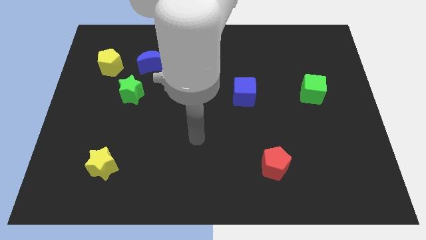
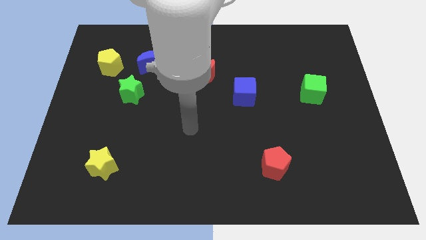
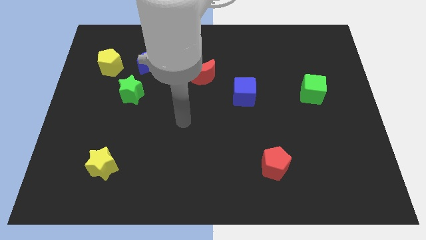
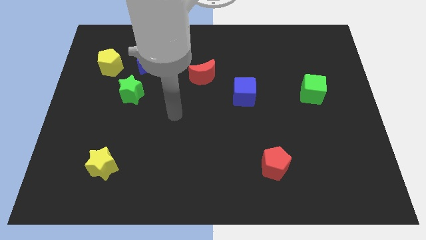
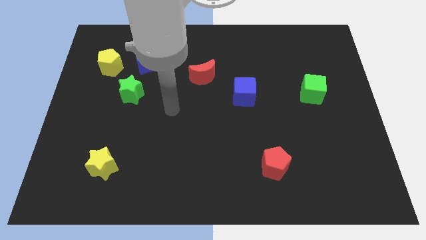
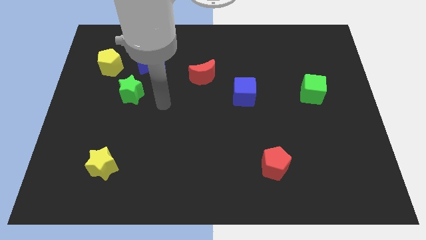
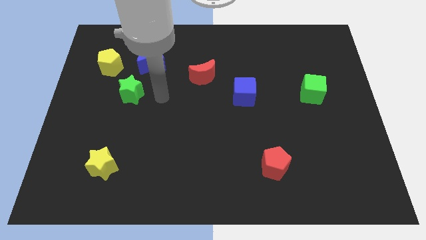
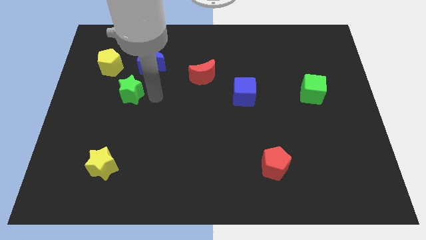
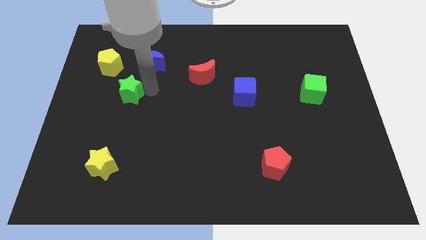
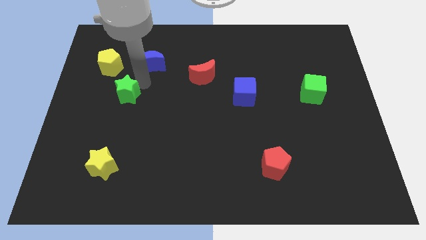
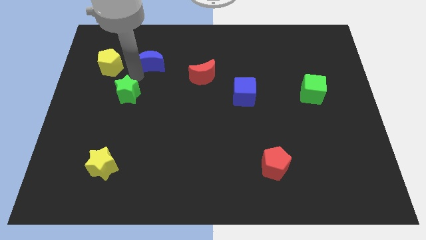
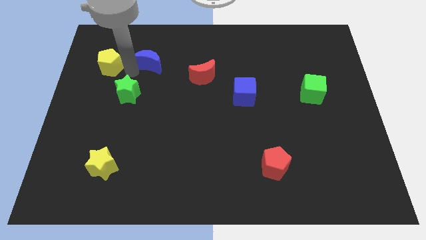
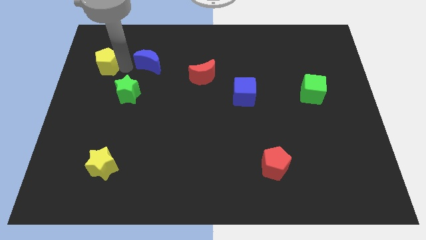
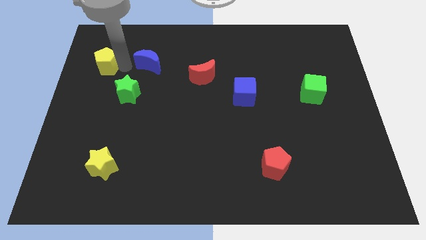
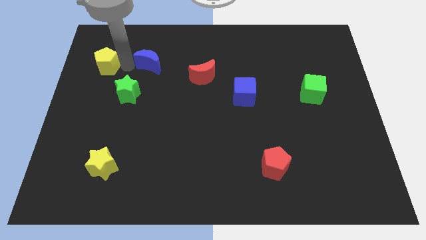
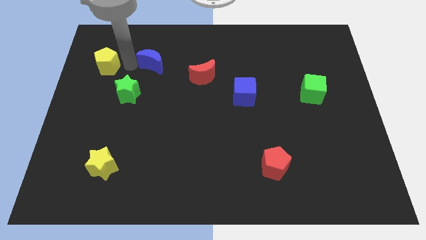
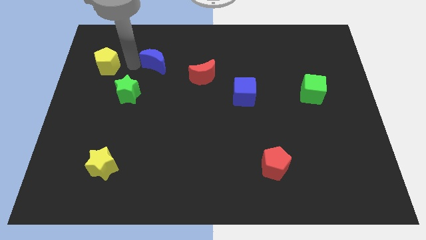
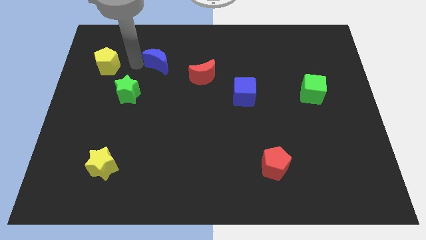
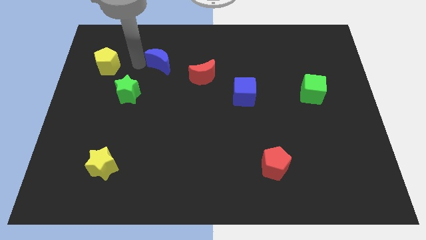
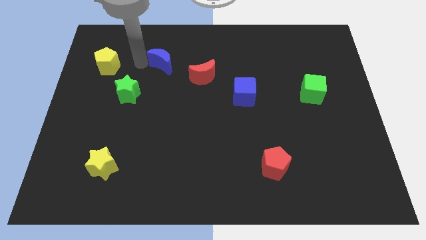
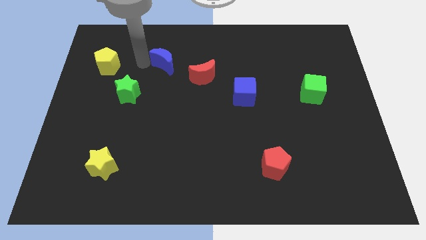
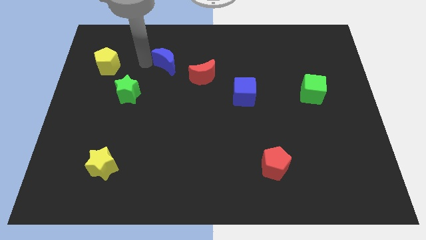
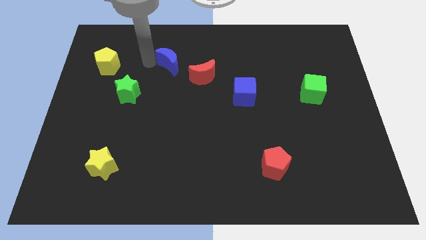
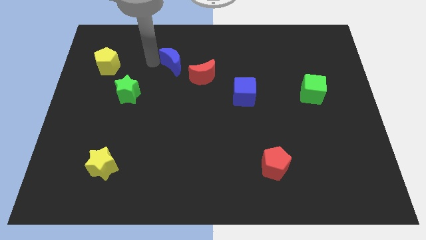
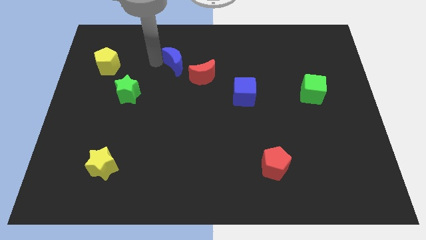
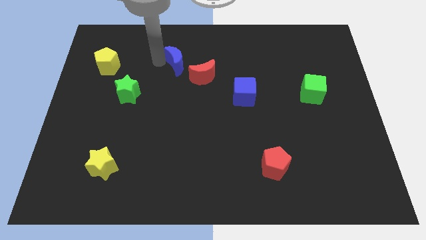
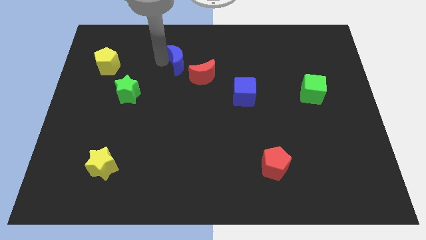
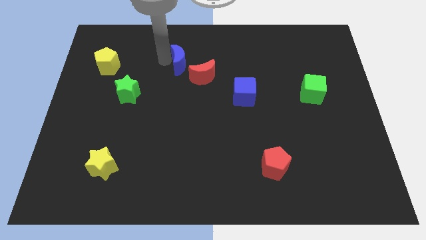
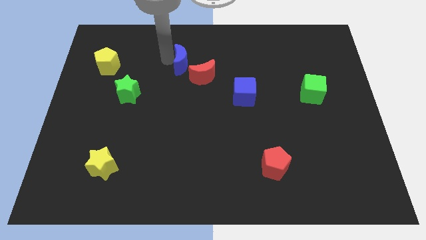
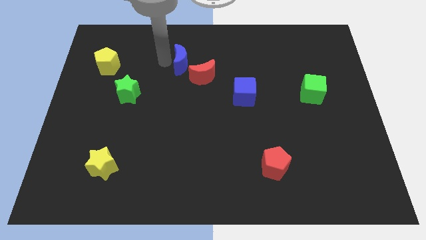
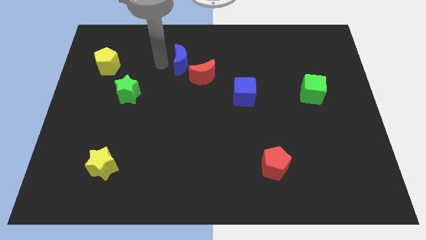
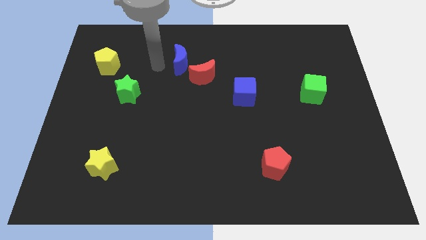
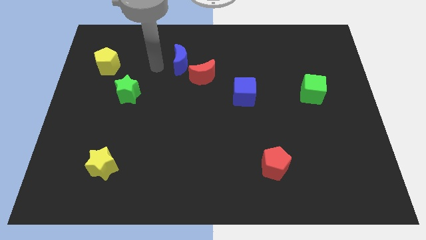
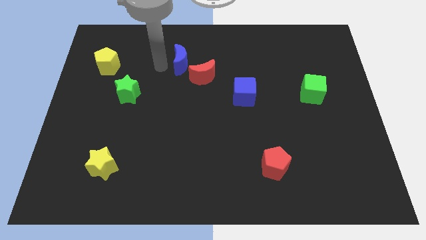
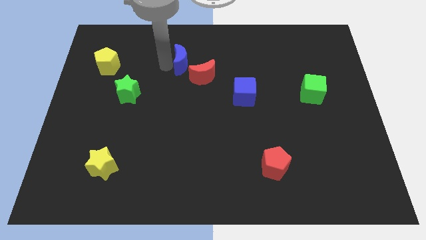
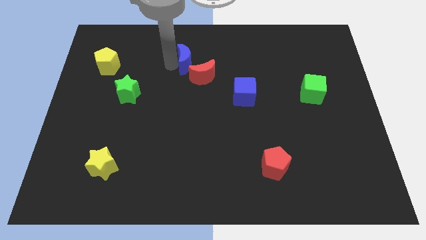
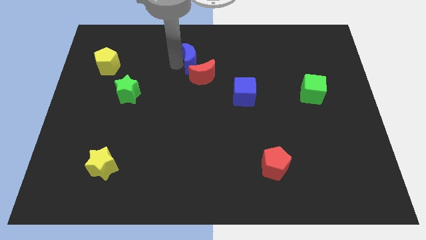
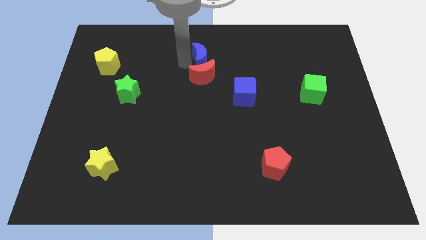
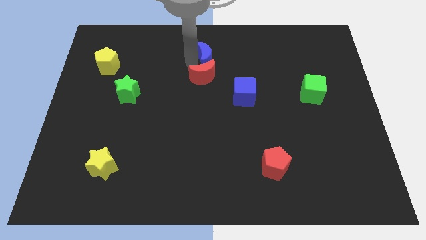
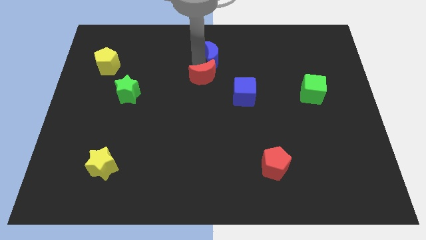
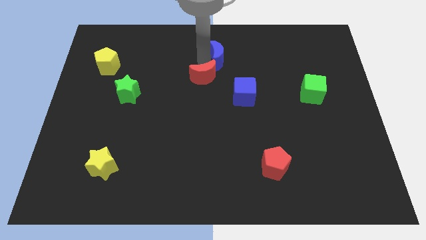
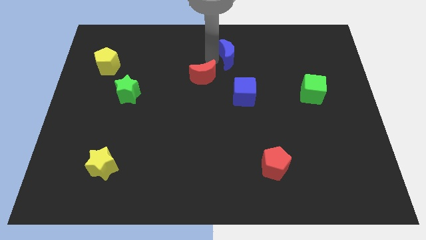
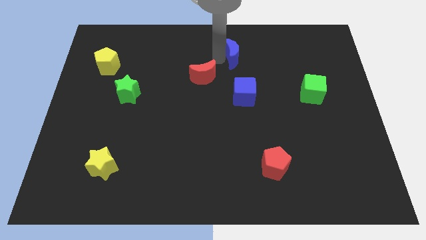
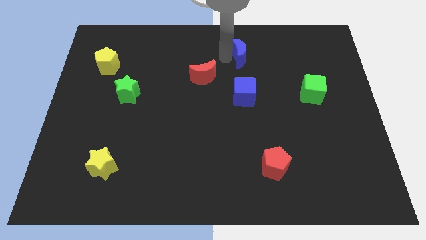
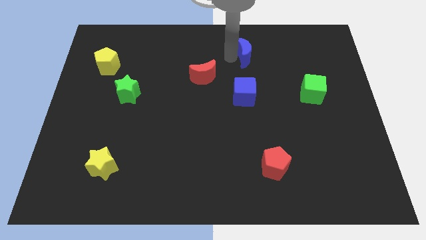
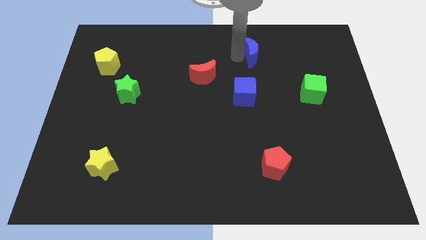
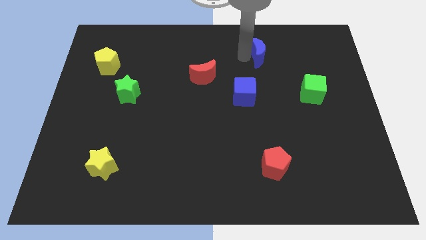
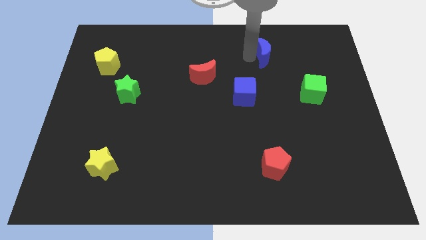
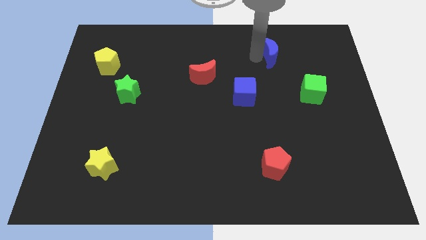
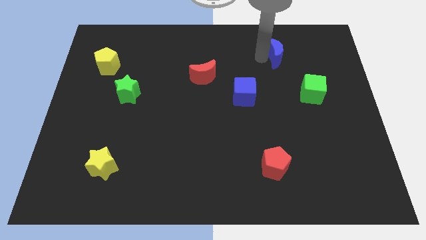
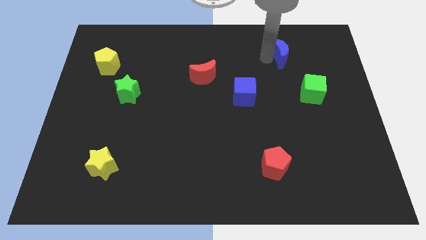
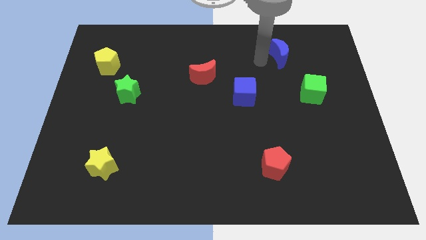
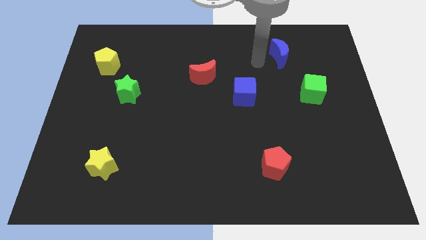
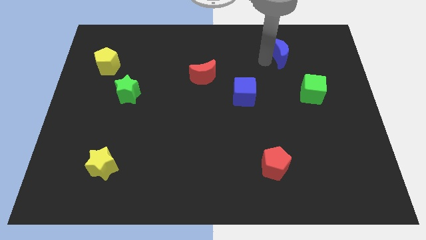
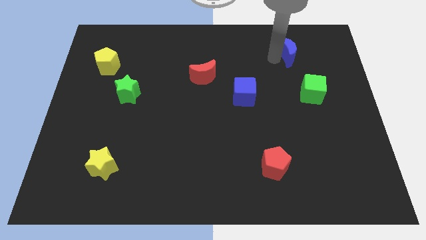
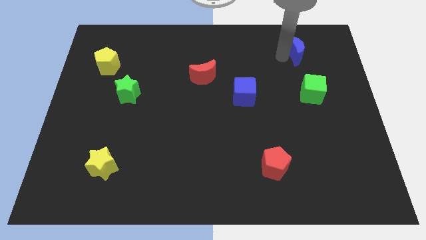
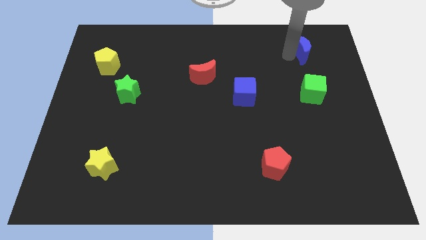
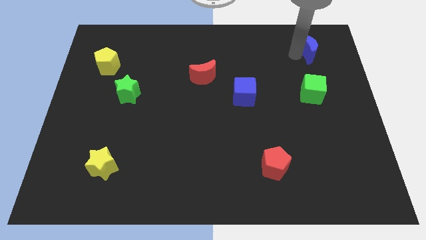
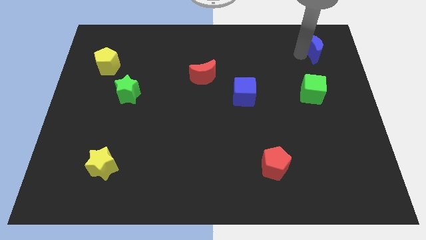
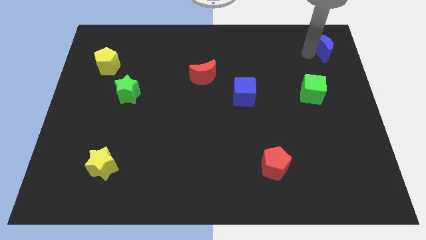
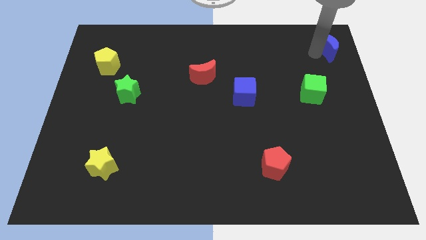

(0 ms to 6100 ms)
move the blue moon to the top right corner

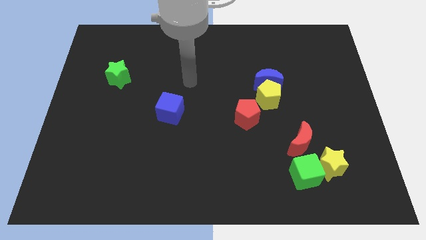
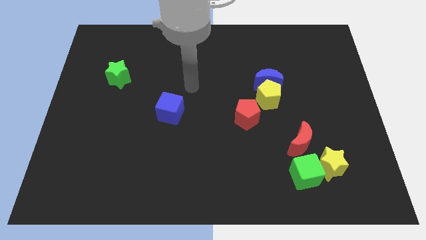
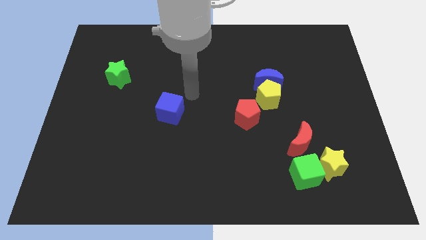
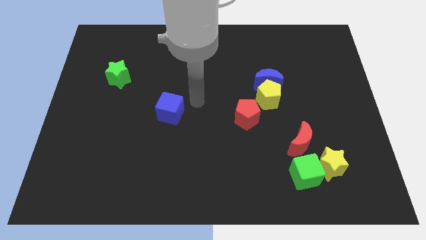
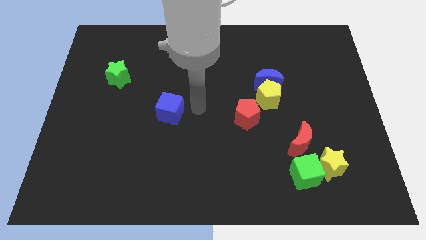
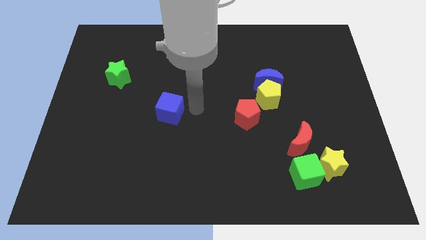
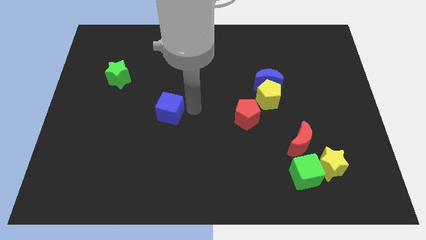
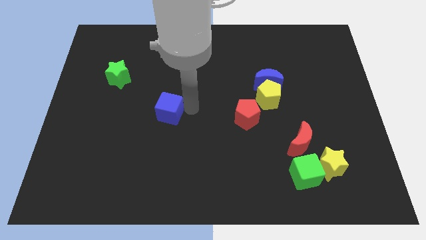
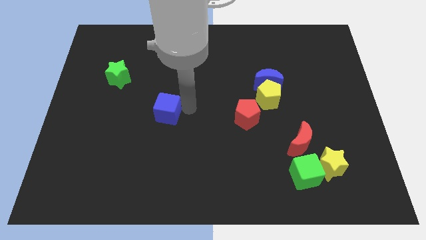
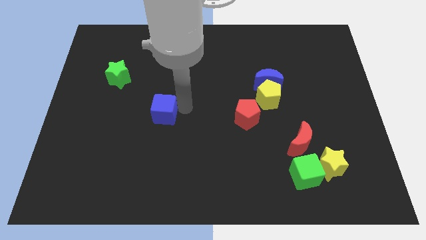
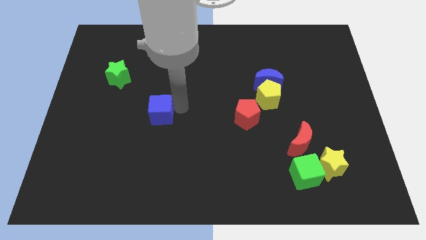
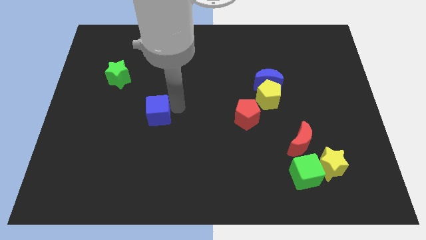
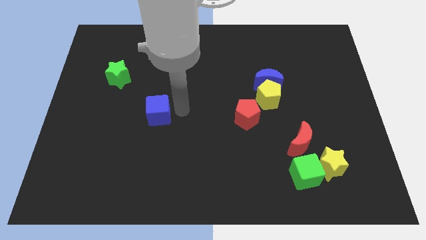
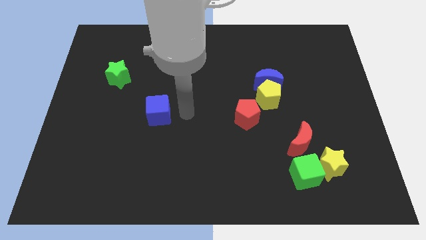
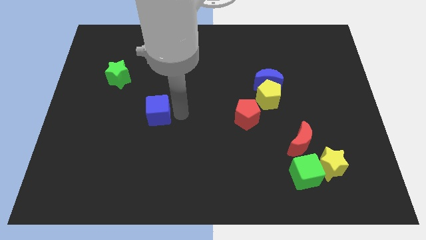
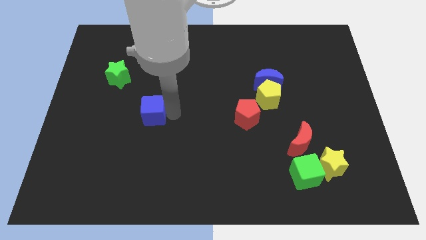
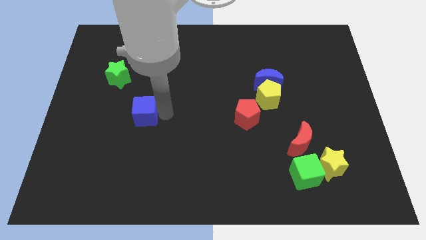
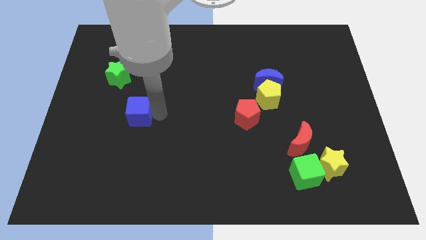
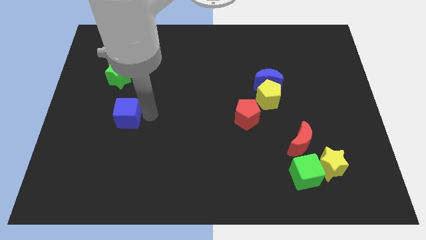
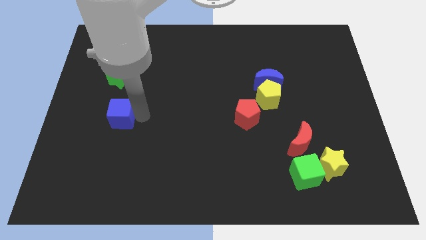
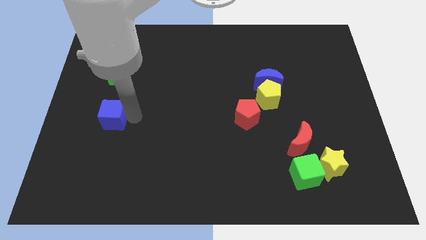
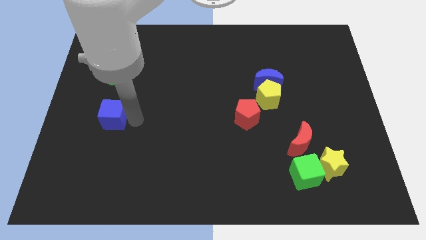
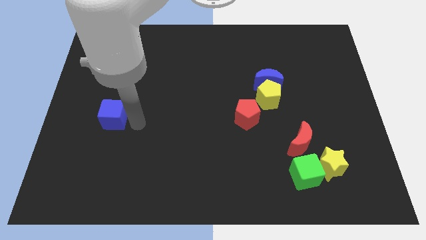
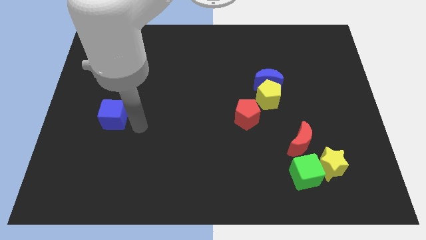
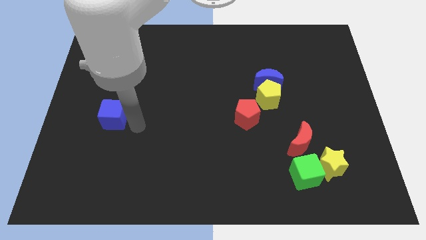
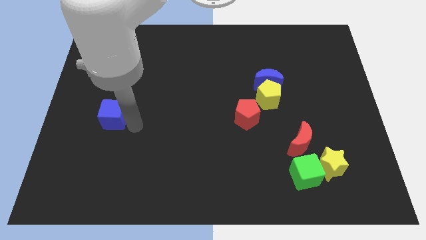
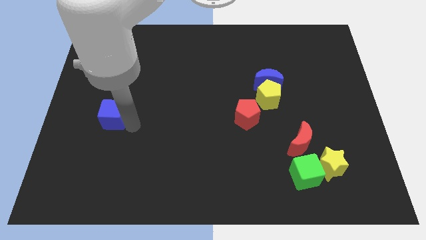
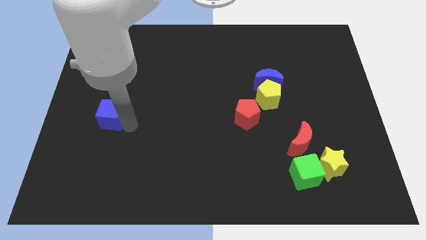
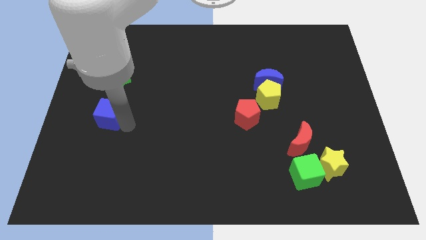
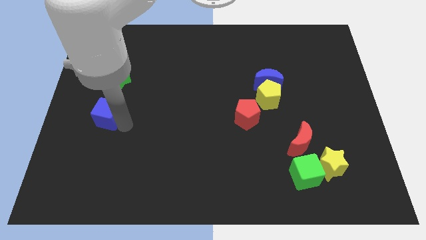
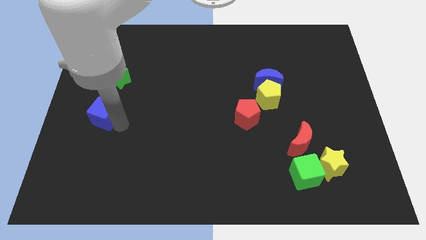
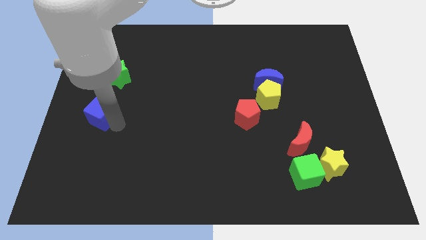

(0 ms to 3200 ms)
push the blue cube to the left side of the board
